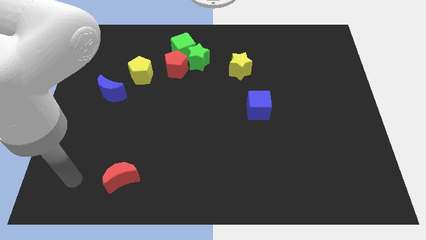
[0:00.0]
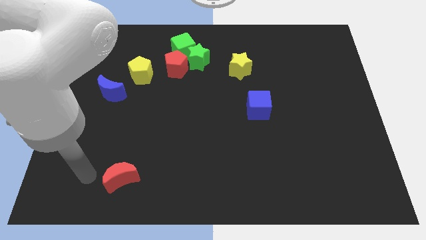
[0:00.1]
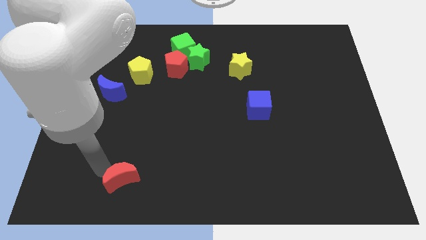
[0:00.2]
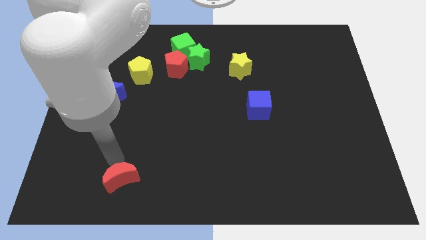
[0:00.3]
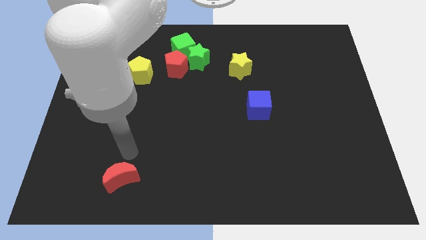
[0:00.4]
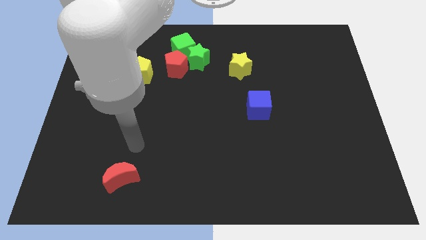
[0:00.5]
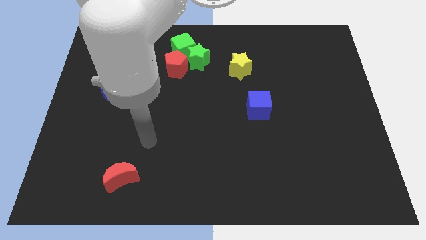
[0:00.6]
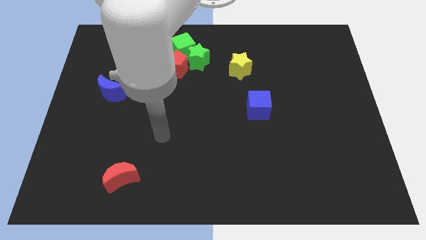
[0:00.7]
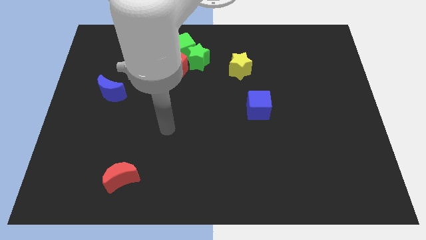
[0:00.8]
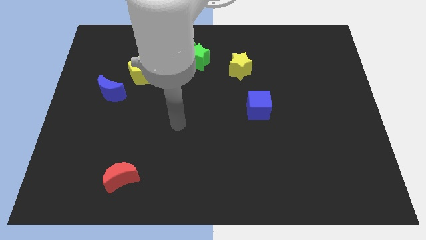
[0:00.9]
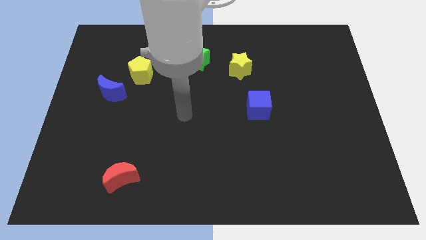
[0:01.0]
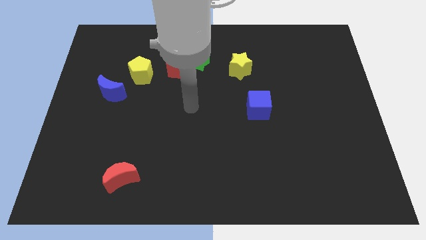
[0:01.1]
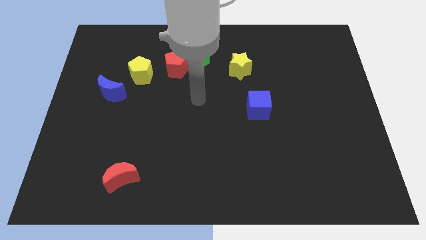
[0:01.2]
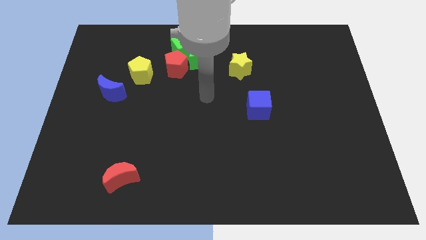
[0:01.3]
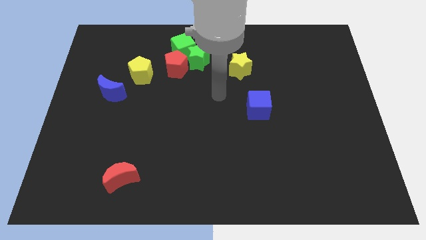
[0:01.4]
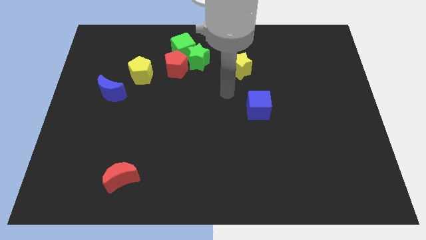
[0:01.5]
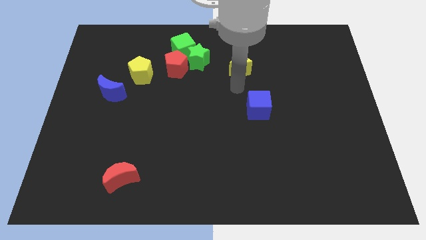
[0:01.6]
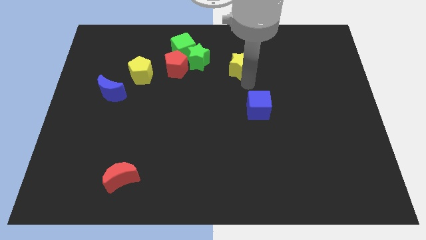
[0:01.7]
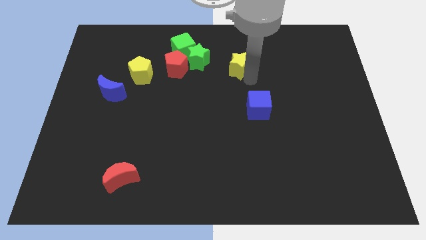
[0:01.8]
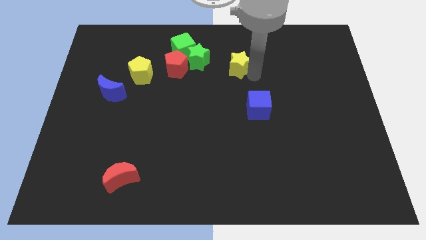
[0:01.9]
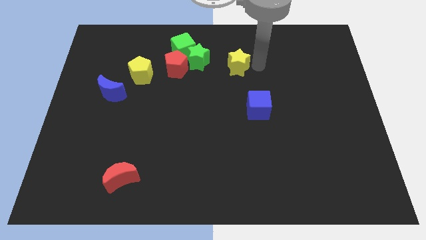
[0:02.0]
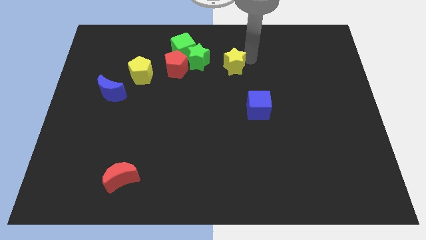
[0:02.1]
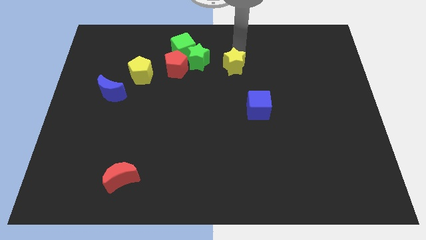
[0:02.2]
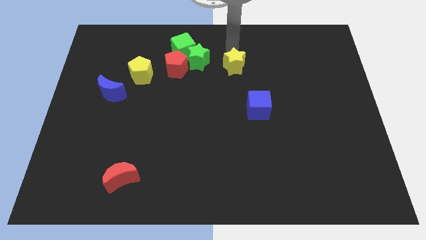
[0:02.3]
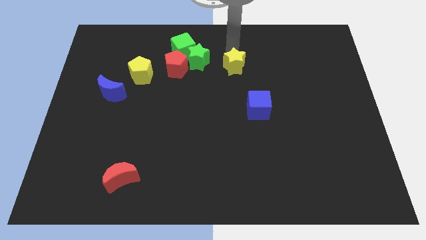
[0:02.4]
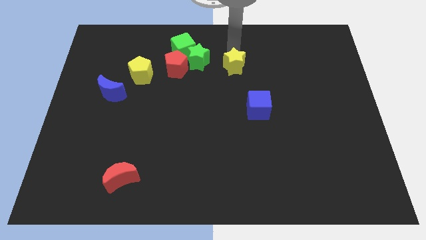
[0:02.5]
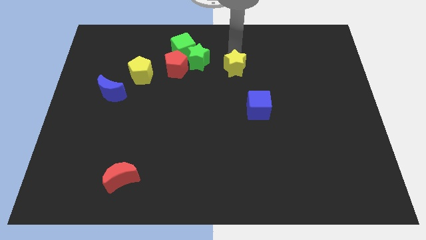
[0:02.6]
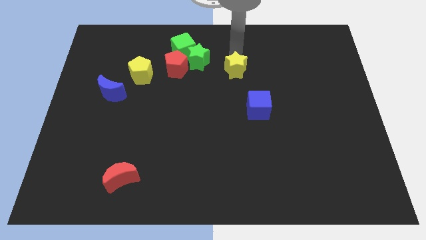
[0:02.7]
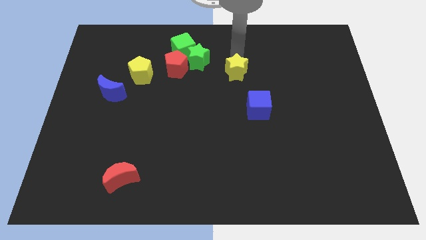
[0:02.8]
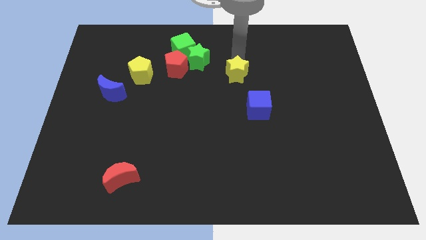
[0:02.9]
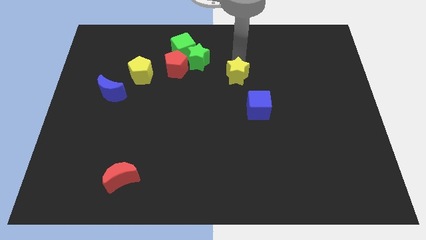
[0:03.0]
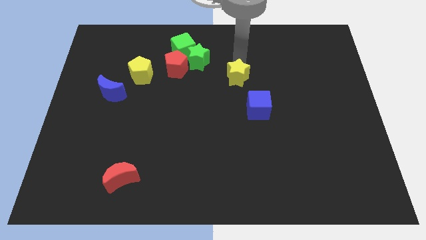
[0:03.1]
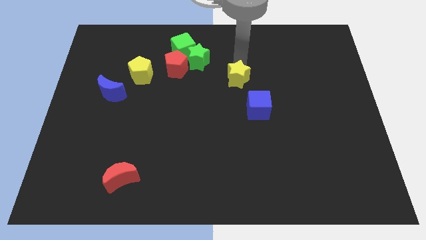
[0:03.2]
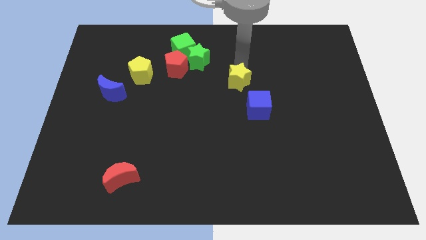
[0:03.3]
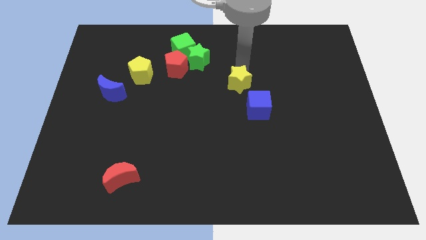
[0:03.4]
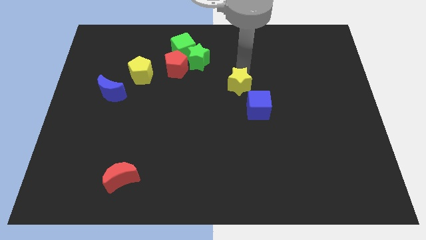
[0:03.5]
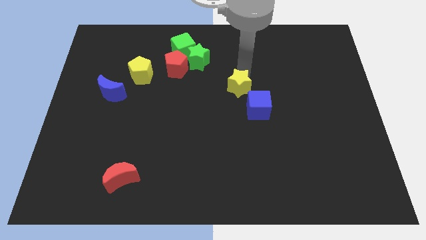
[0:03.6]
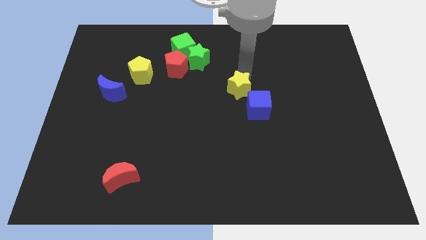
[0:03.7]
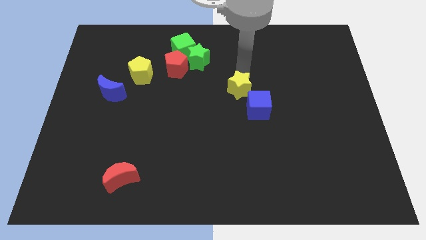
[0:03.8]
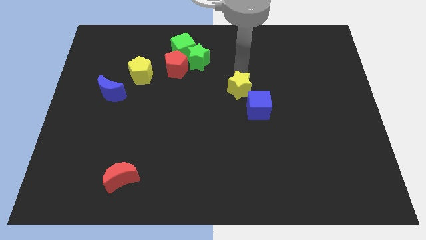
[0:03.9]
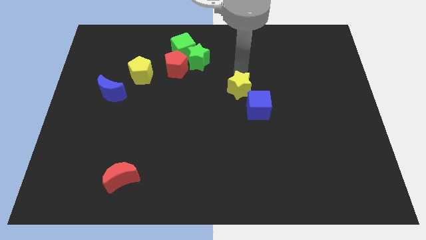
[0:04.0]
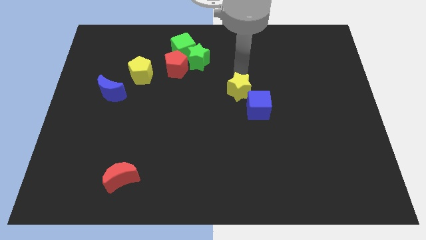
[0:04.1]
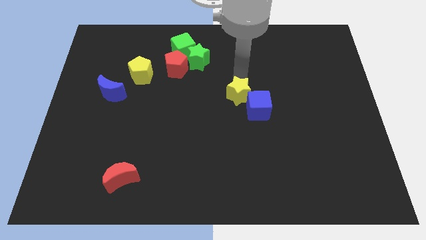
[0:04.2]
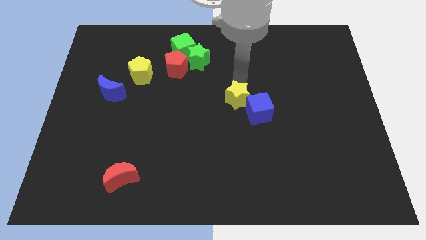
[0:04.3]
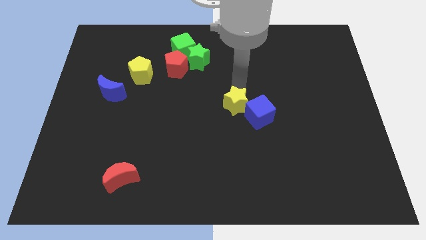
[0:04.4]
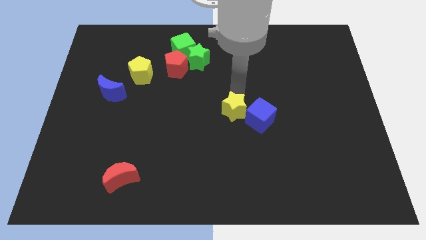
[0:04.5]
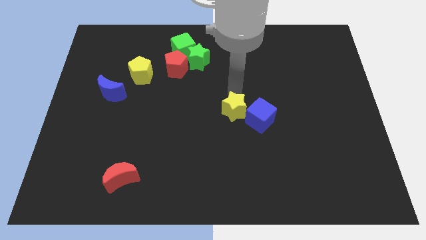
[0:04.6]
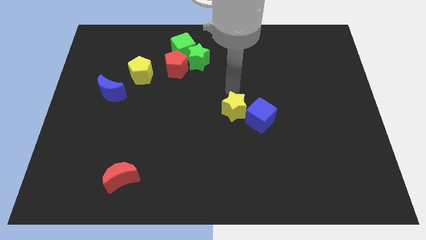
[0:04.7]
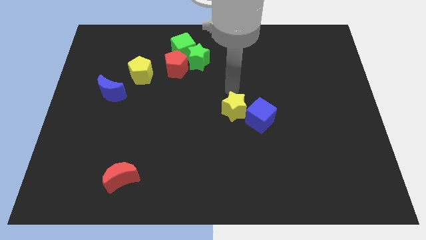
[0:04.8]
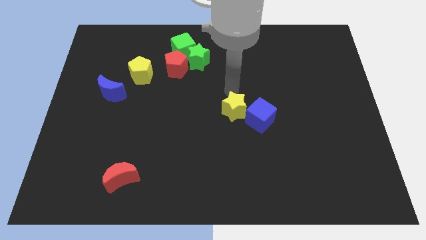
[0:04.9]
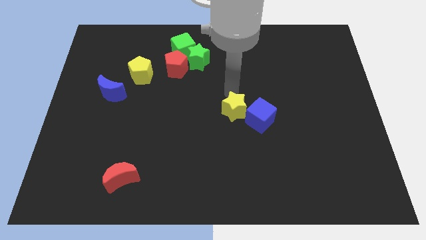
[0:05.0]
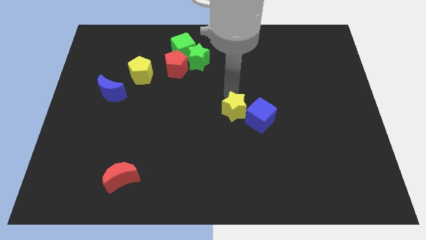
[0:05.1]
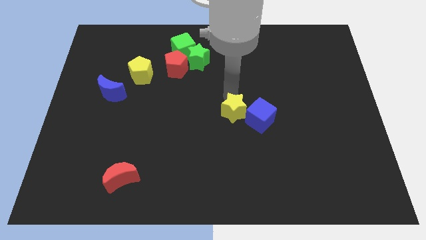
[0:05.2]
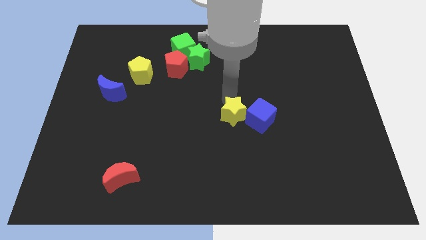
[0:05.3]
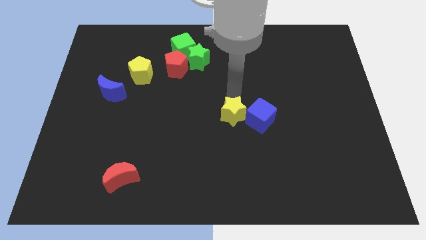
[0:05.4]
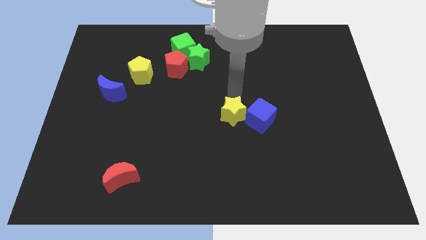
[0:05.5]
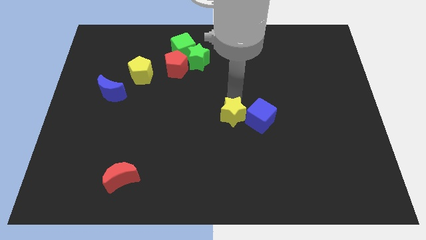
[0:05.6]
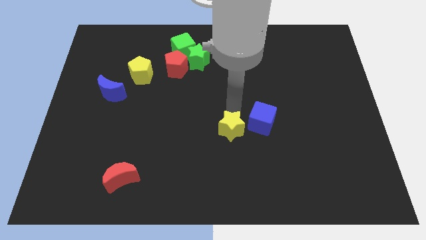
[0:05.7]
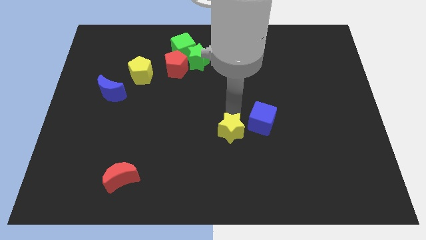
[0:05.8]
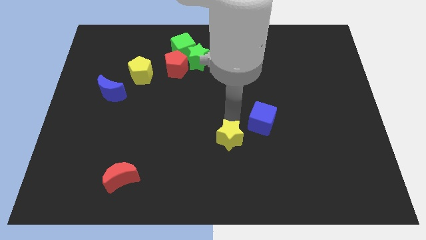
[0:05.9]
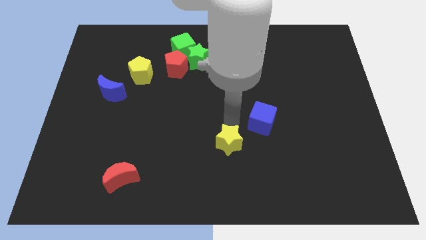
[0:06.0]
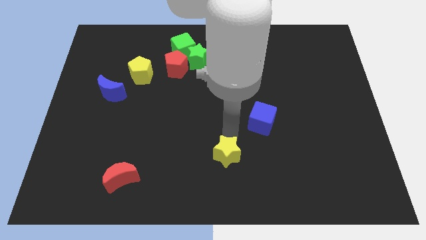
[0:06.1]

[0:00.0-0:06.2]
slide the yellow star to the bottom side

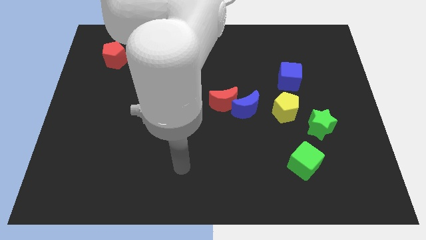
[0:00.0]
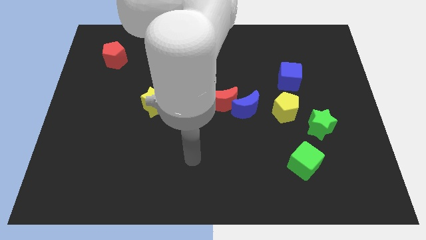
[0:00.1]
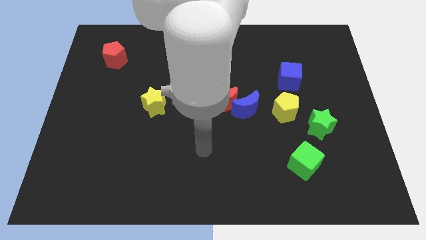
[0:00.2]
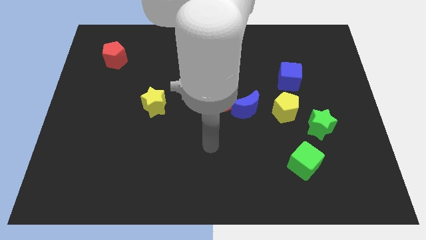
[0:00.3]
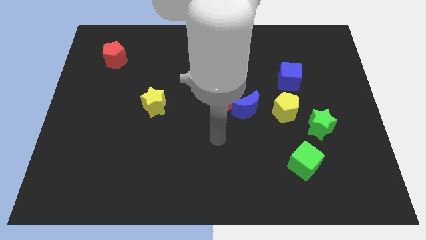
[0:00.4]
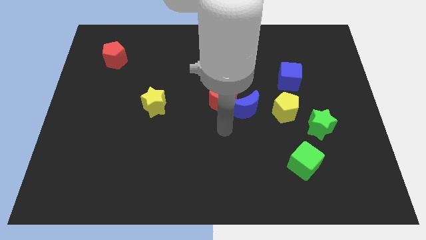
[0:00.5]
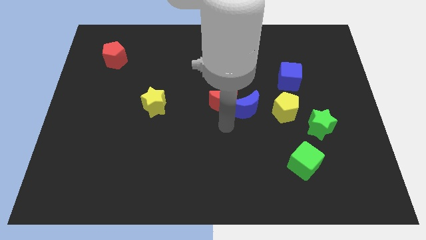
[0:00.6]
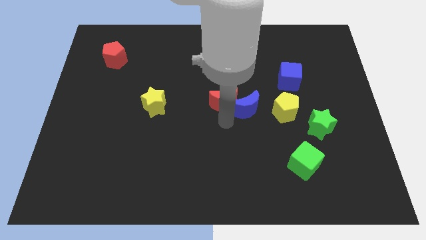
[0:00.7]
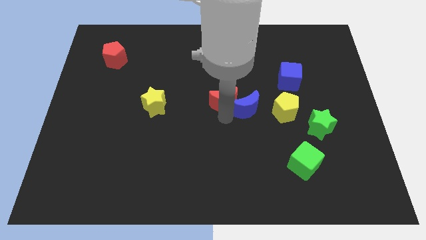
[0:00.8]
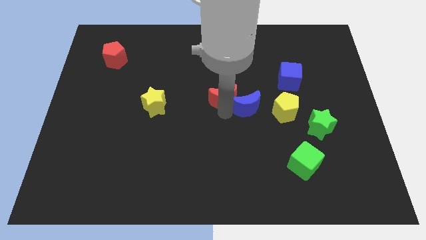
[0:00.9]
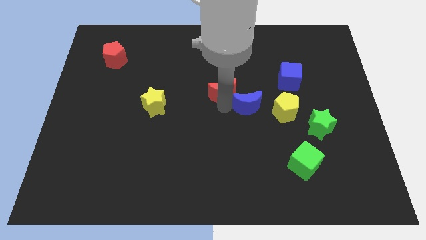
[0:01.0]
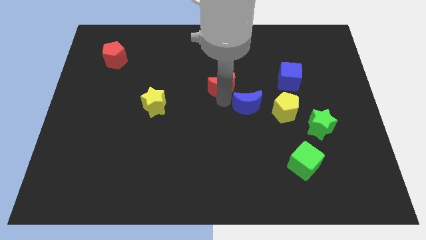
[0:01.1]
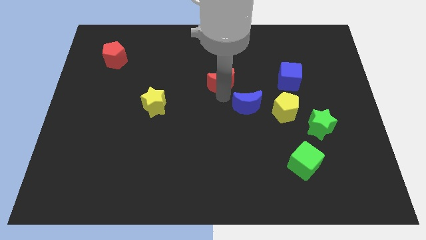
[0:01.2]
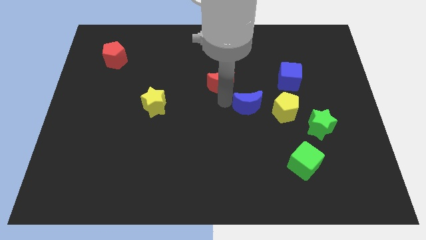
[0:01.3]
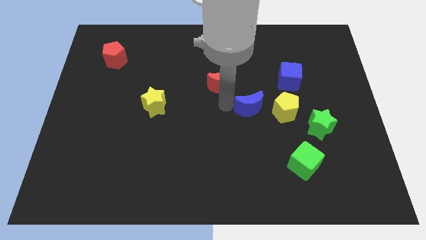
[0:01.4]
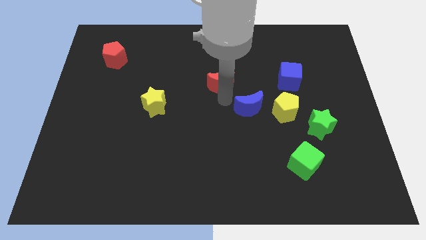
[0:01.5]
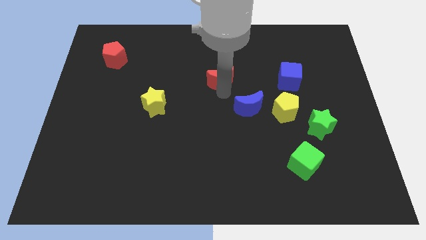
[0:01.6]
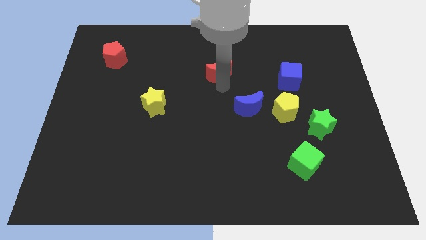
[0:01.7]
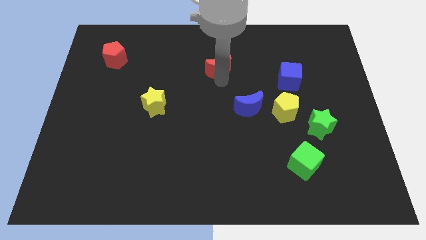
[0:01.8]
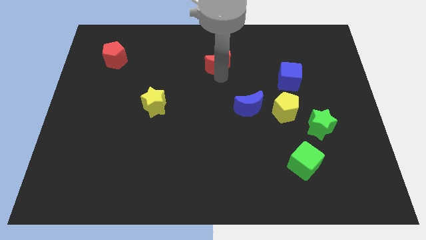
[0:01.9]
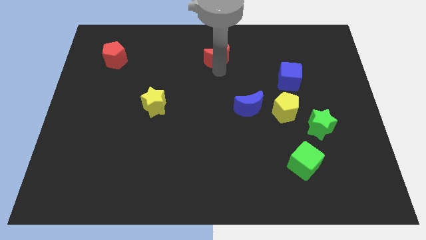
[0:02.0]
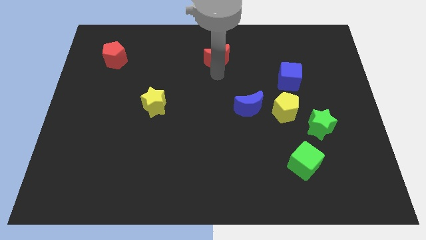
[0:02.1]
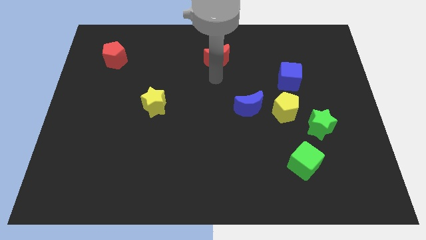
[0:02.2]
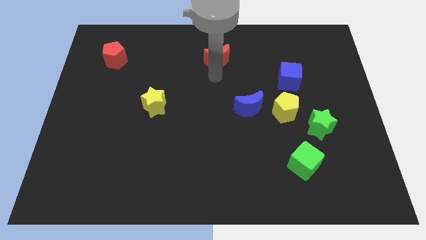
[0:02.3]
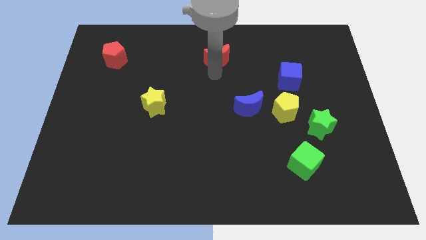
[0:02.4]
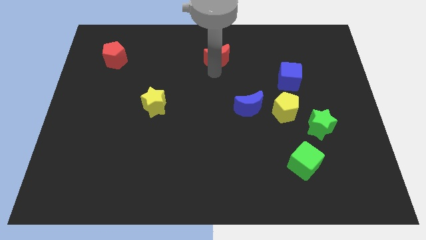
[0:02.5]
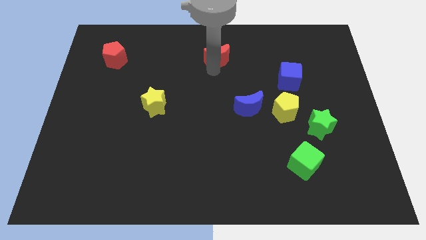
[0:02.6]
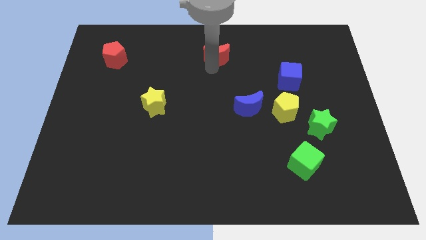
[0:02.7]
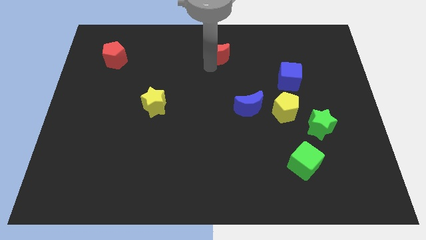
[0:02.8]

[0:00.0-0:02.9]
put the red moon to the top
